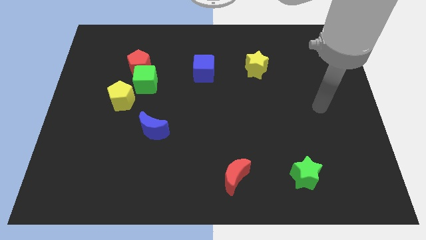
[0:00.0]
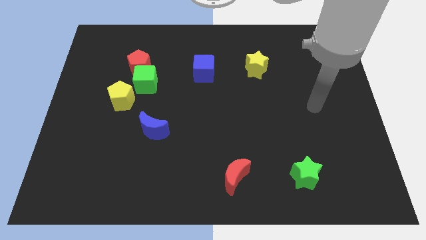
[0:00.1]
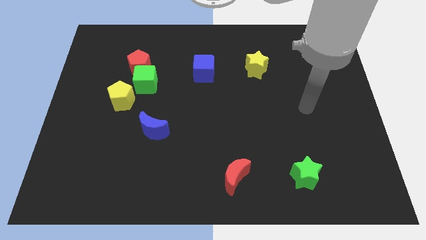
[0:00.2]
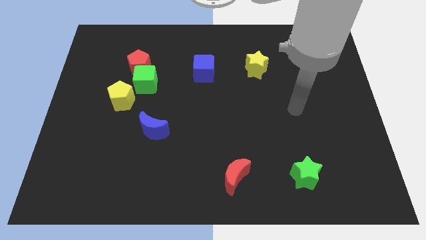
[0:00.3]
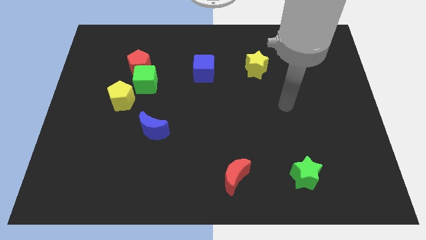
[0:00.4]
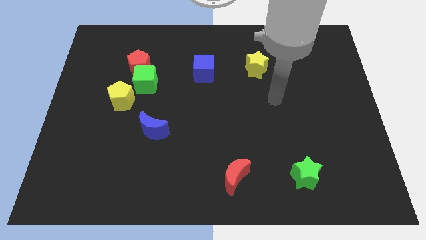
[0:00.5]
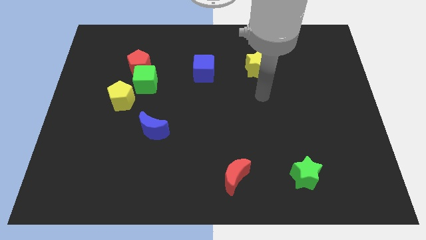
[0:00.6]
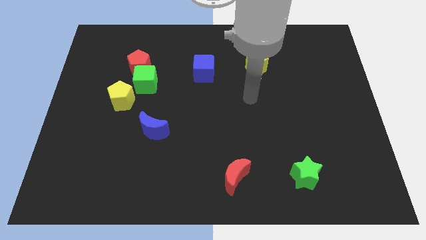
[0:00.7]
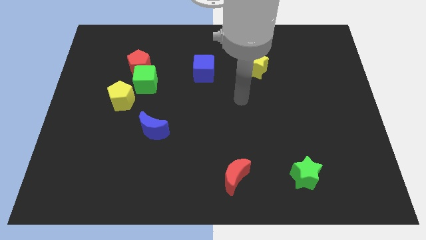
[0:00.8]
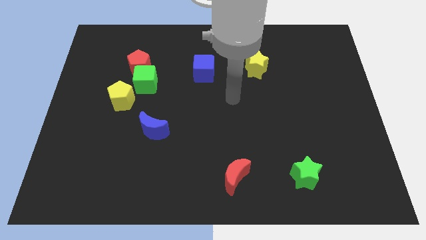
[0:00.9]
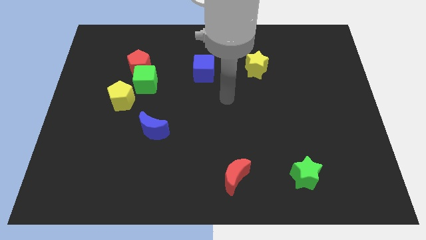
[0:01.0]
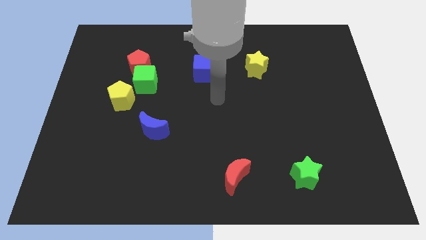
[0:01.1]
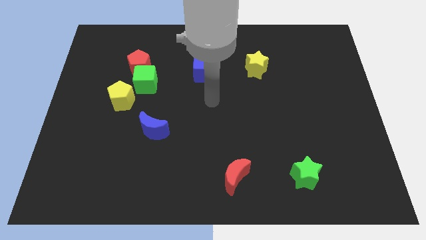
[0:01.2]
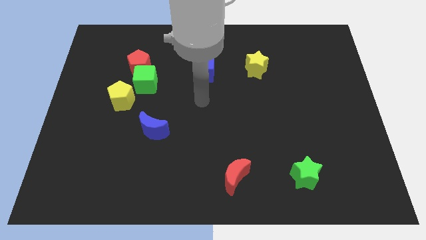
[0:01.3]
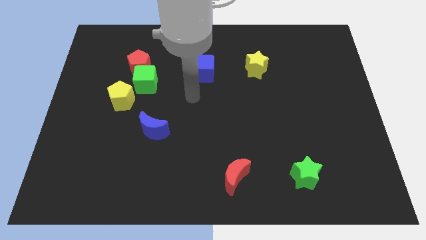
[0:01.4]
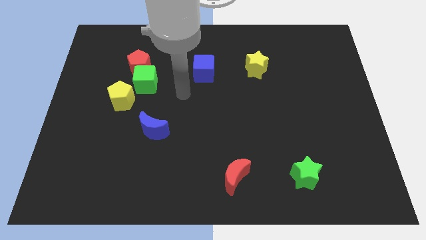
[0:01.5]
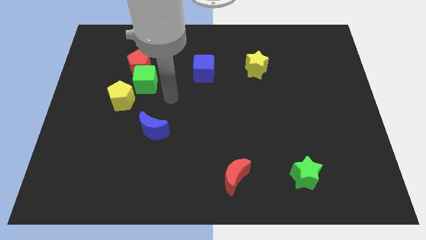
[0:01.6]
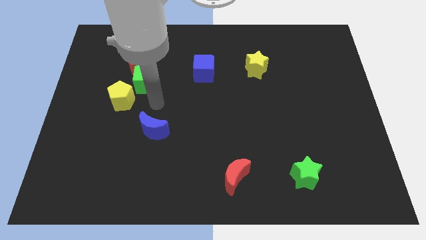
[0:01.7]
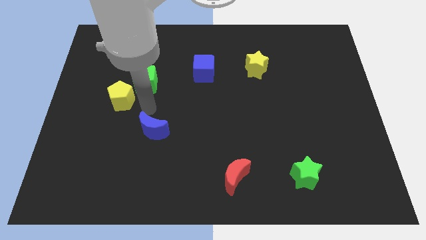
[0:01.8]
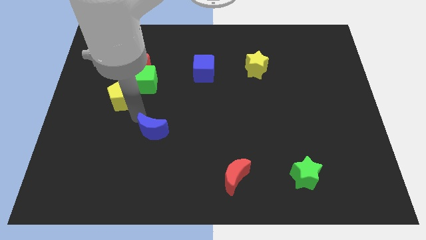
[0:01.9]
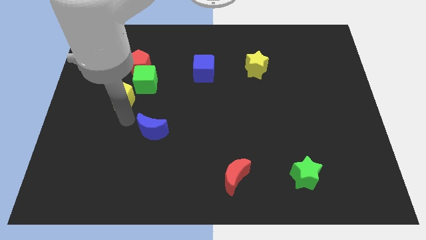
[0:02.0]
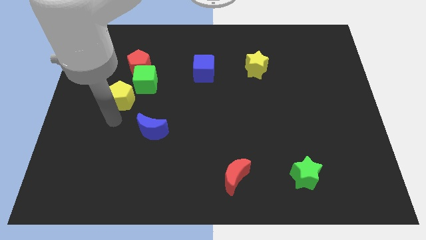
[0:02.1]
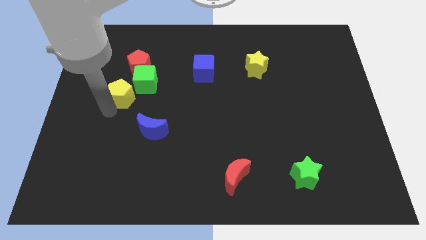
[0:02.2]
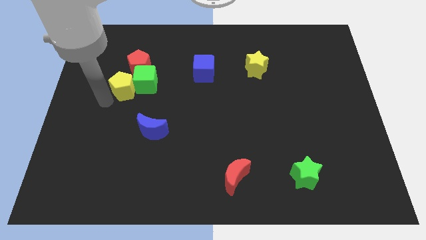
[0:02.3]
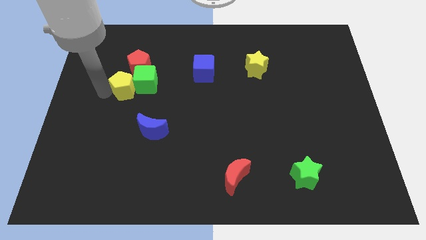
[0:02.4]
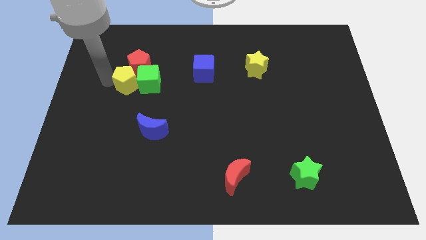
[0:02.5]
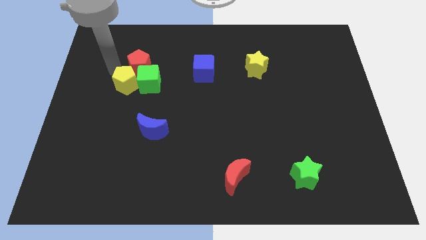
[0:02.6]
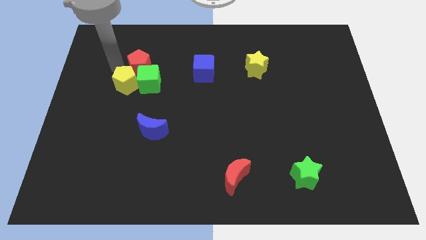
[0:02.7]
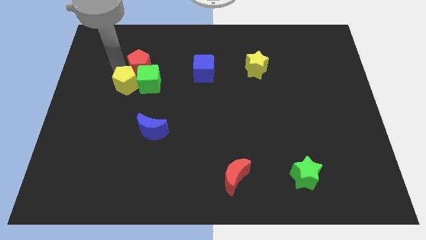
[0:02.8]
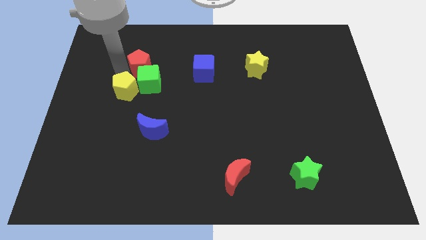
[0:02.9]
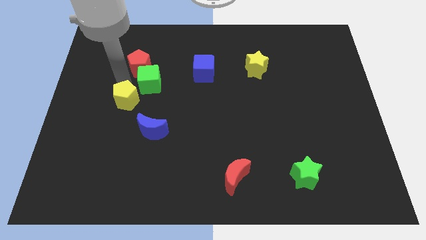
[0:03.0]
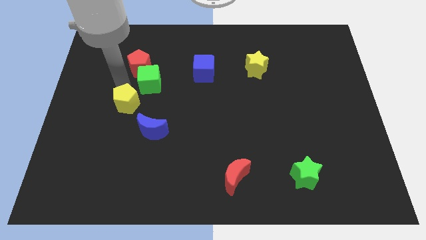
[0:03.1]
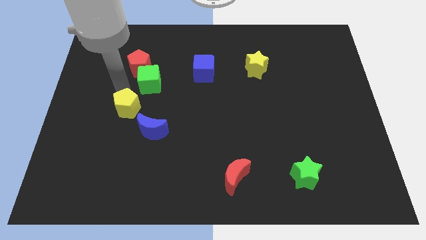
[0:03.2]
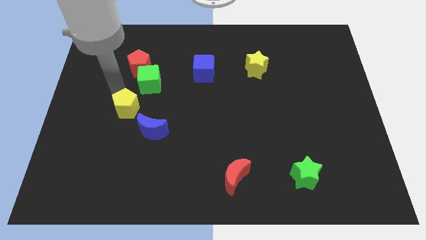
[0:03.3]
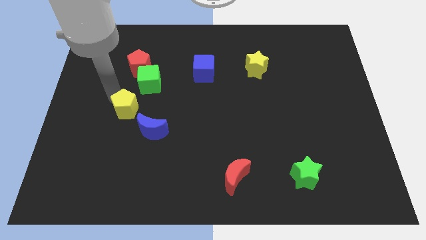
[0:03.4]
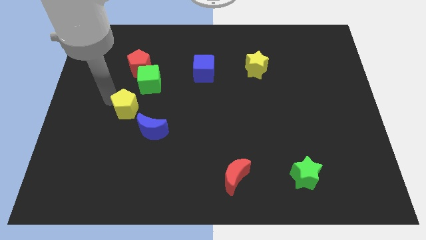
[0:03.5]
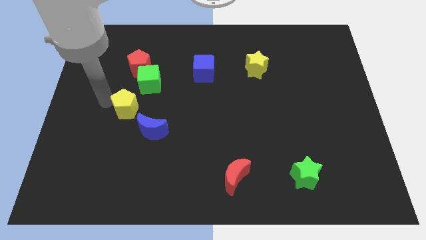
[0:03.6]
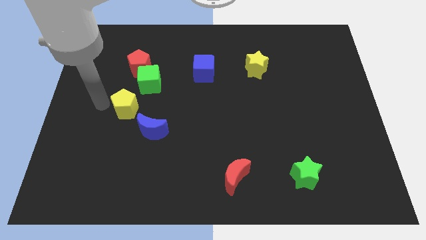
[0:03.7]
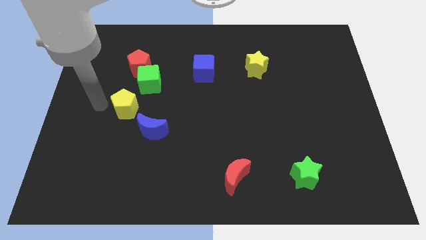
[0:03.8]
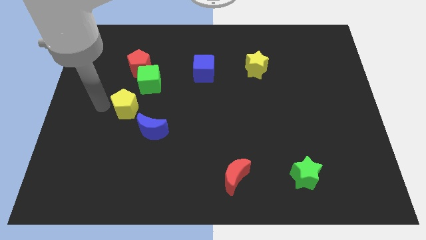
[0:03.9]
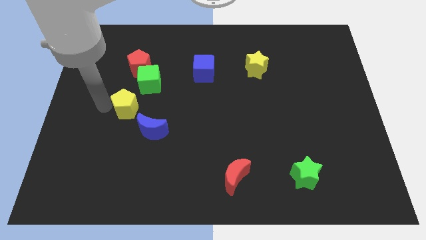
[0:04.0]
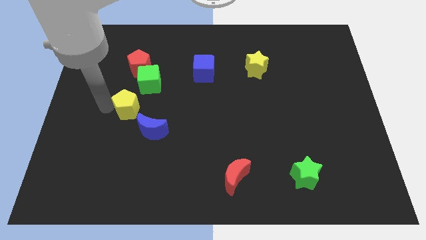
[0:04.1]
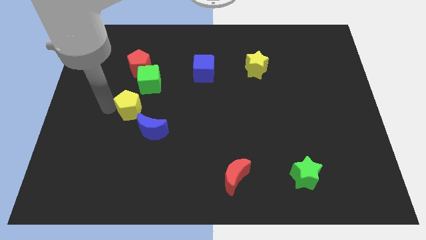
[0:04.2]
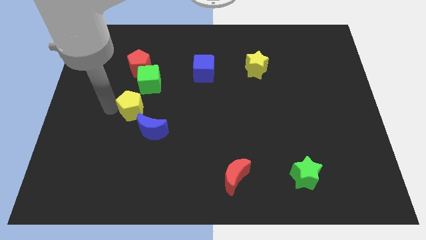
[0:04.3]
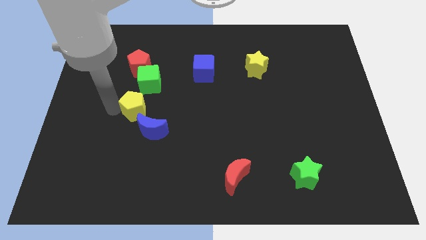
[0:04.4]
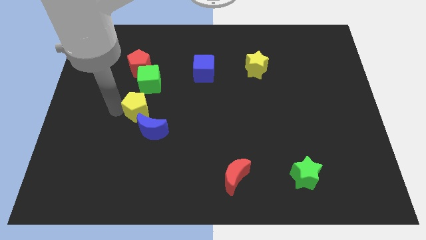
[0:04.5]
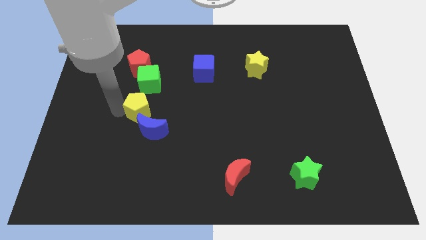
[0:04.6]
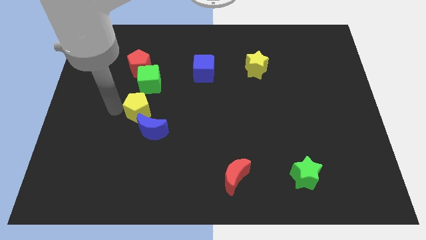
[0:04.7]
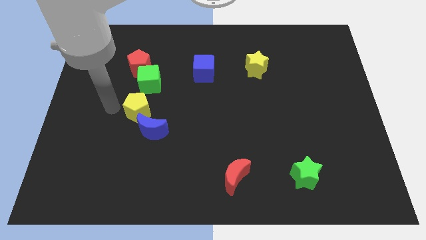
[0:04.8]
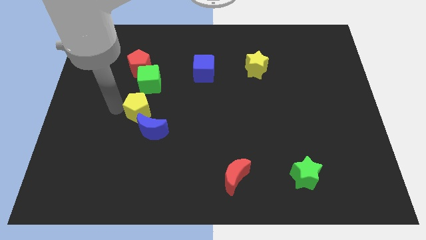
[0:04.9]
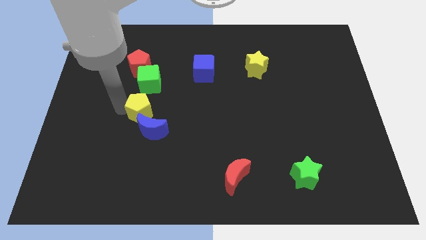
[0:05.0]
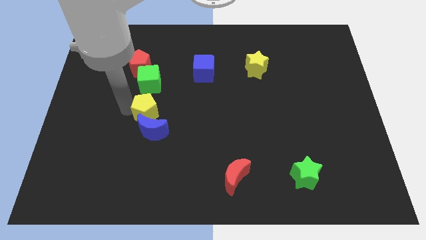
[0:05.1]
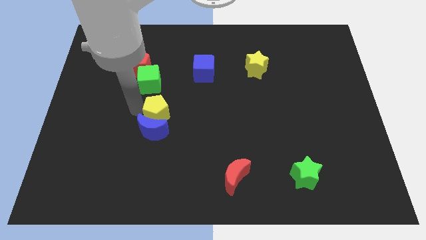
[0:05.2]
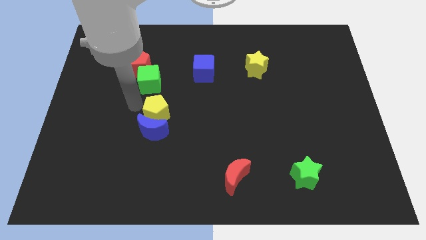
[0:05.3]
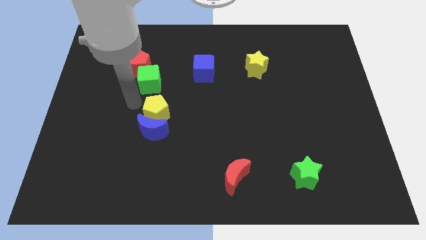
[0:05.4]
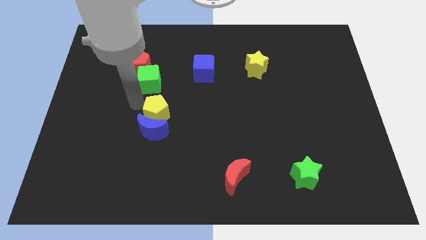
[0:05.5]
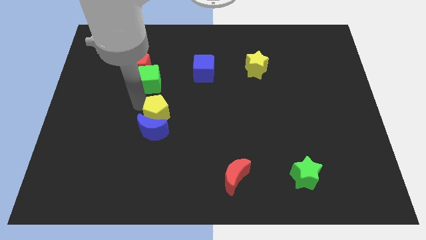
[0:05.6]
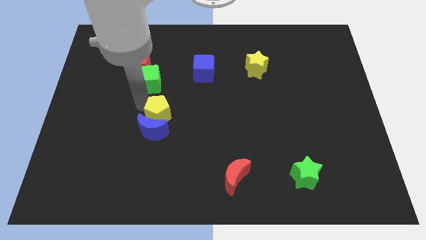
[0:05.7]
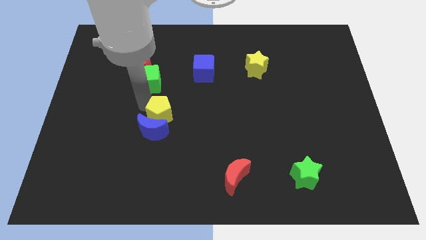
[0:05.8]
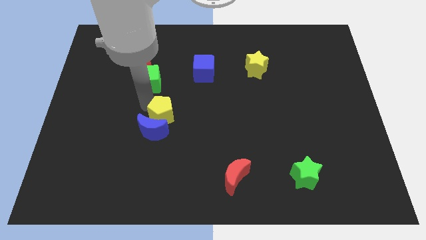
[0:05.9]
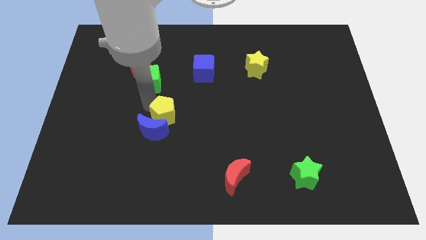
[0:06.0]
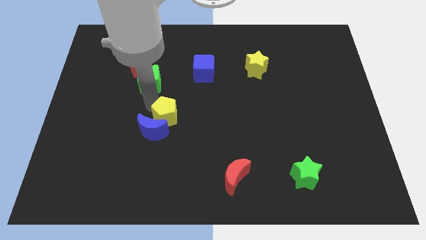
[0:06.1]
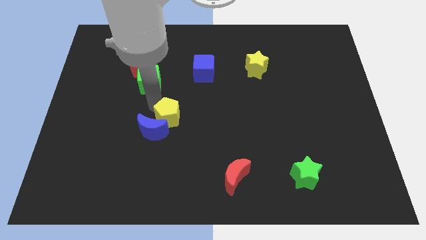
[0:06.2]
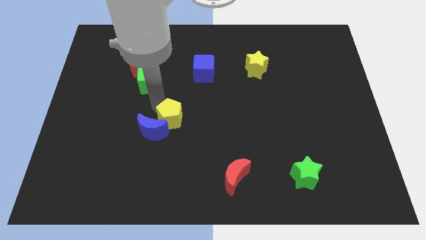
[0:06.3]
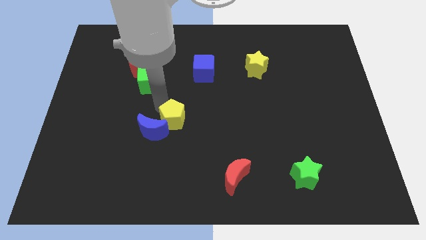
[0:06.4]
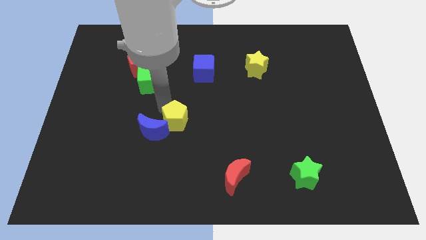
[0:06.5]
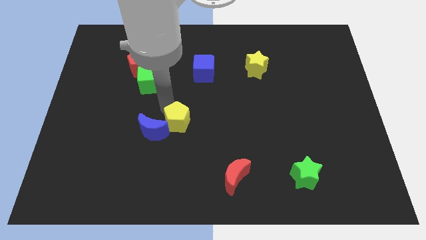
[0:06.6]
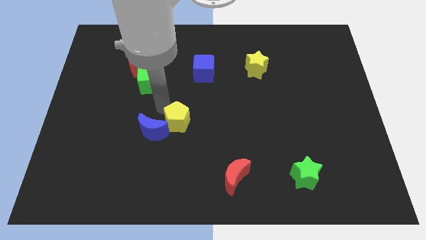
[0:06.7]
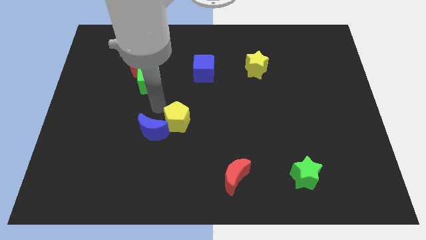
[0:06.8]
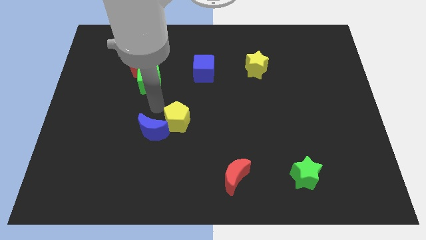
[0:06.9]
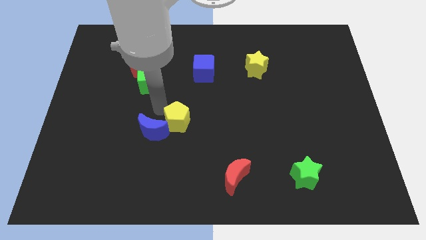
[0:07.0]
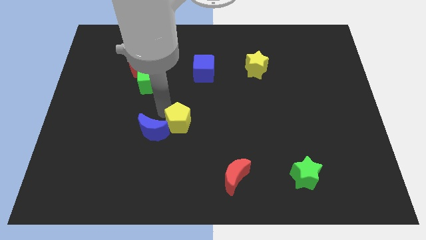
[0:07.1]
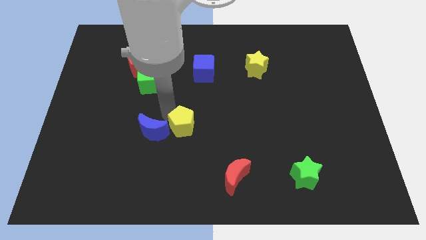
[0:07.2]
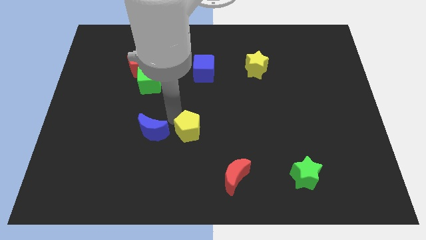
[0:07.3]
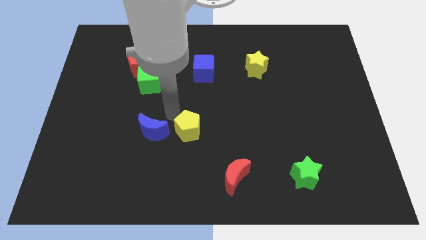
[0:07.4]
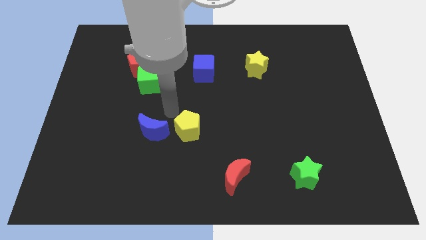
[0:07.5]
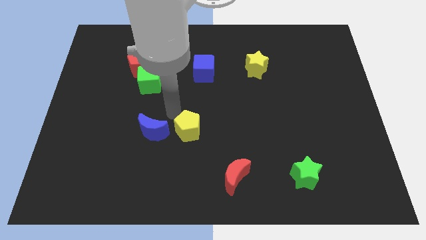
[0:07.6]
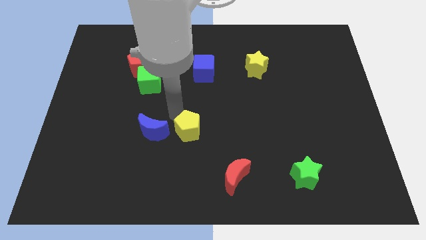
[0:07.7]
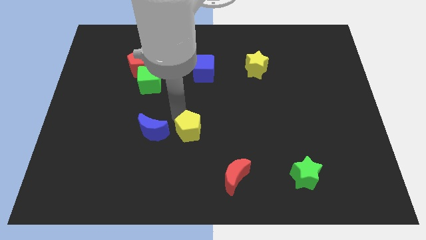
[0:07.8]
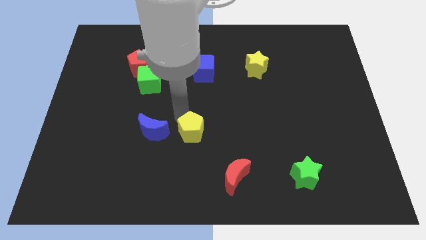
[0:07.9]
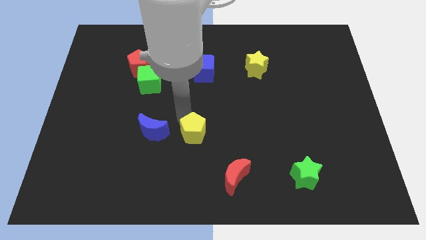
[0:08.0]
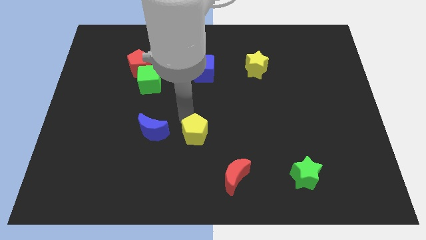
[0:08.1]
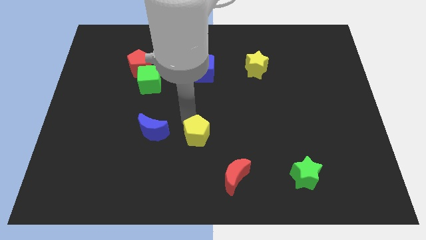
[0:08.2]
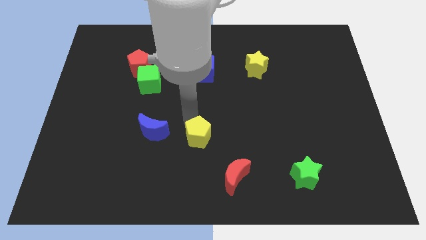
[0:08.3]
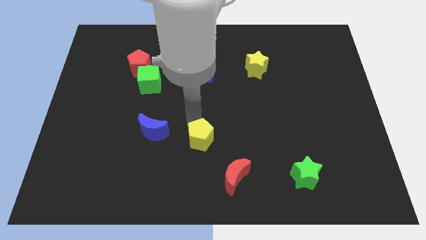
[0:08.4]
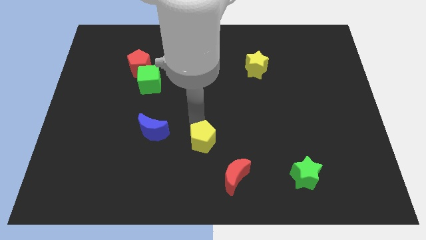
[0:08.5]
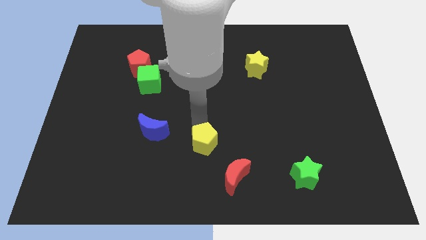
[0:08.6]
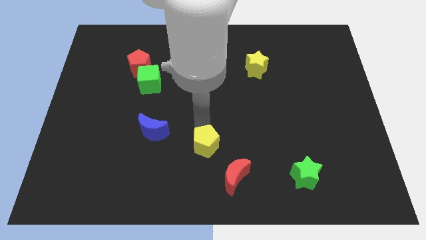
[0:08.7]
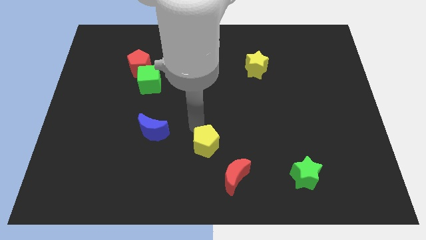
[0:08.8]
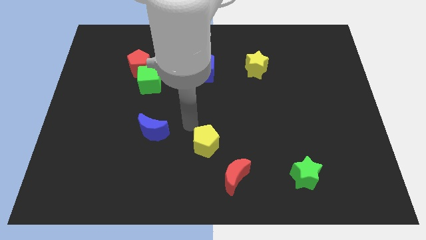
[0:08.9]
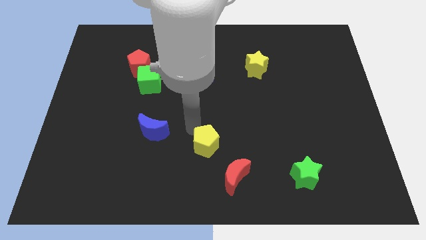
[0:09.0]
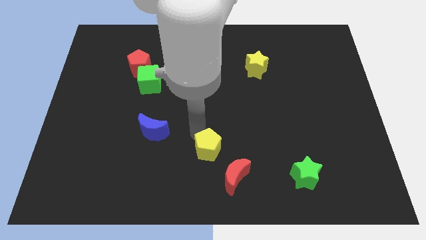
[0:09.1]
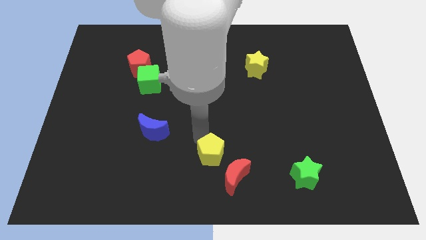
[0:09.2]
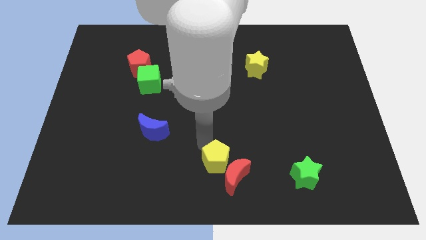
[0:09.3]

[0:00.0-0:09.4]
move the yellow pentagon next to the red moon
